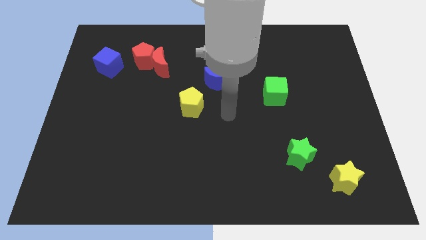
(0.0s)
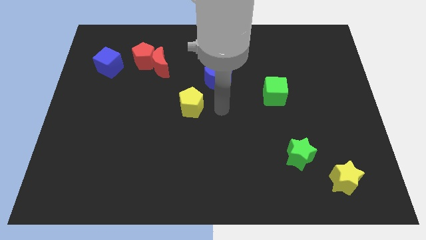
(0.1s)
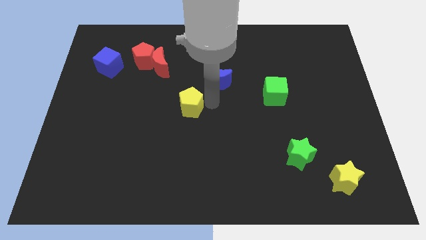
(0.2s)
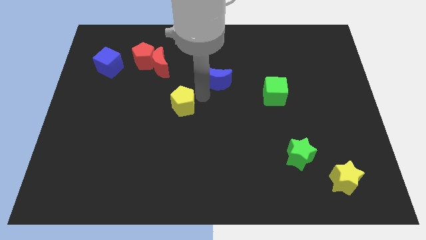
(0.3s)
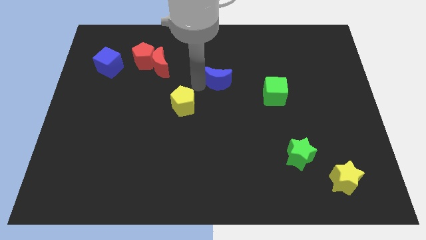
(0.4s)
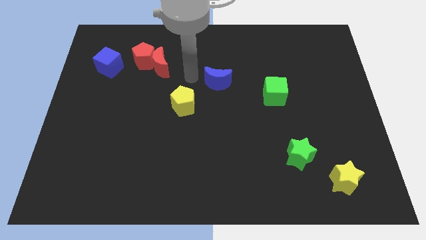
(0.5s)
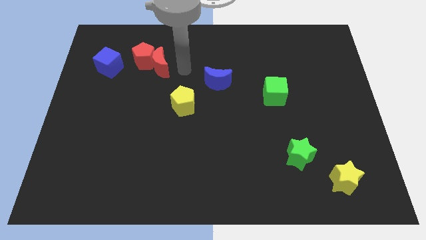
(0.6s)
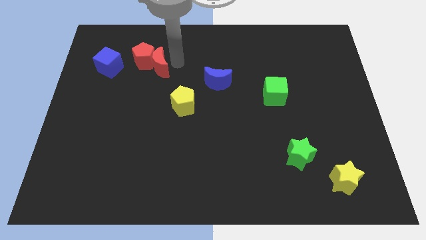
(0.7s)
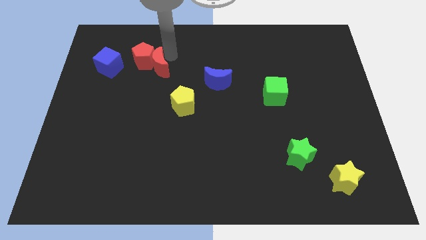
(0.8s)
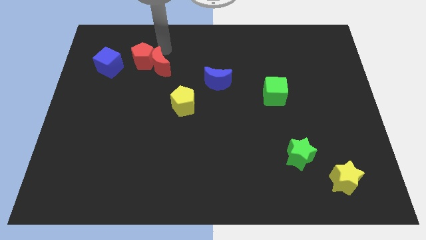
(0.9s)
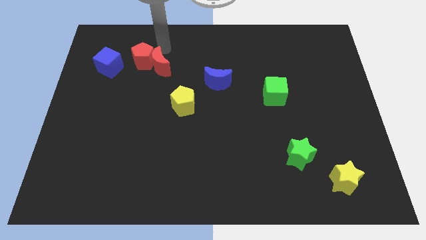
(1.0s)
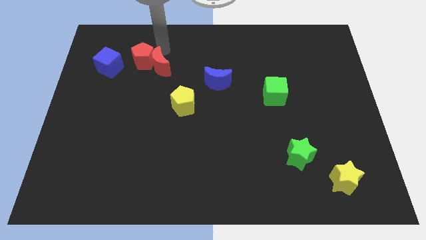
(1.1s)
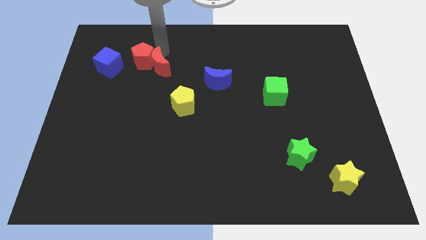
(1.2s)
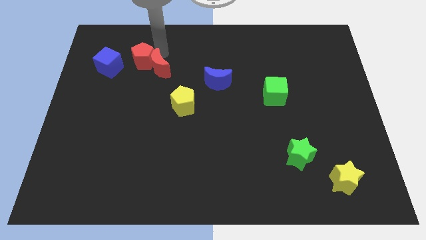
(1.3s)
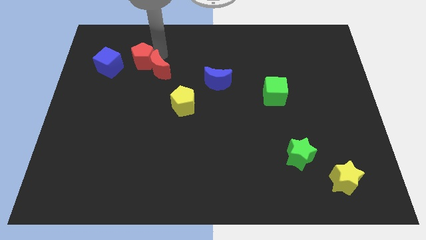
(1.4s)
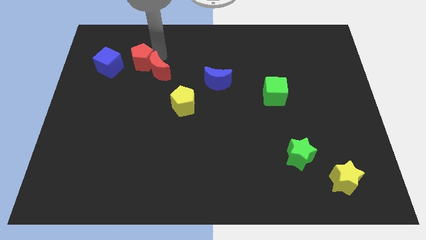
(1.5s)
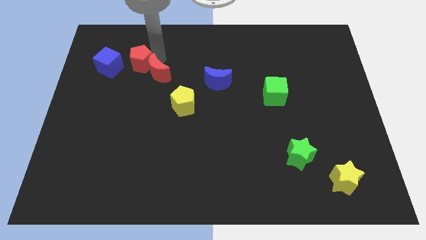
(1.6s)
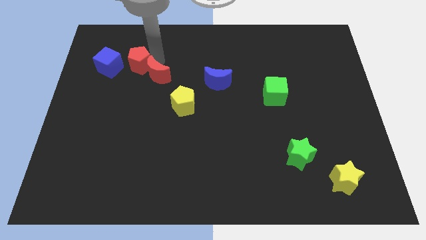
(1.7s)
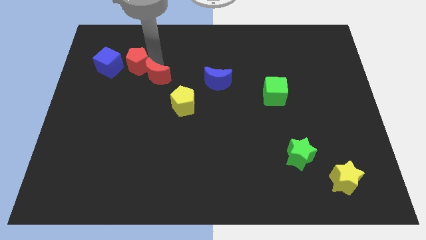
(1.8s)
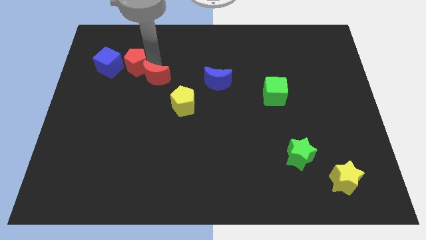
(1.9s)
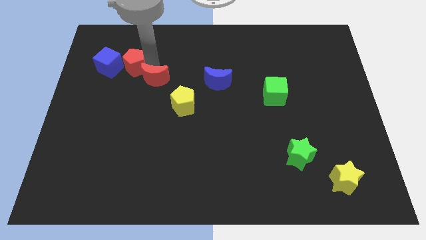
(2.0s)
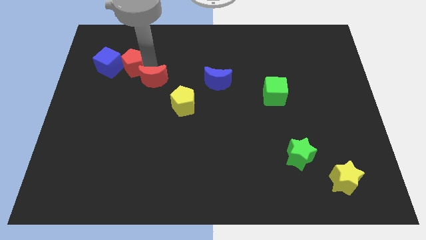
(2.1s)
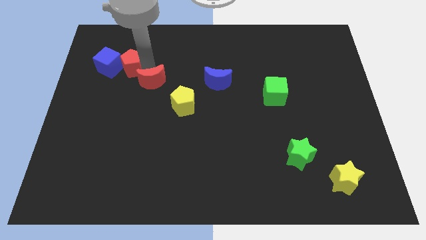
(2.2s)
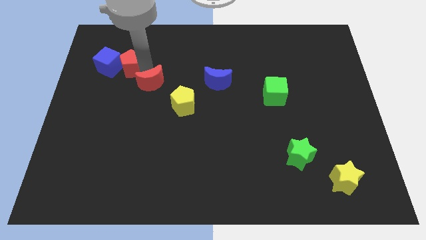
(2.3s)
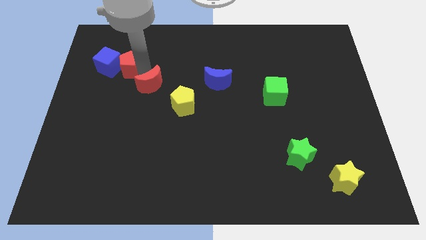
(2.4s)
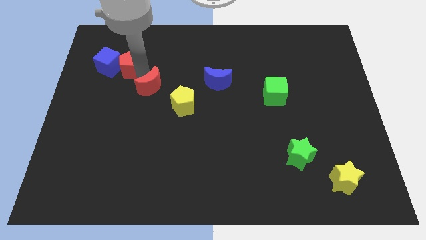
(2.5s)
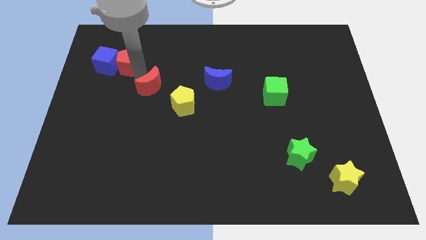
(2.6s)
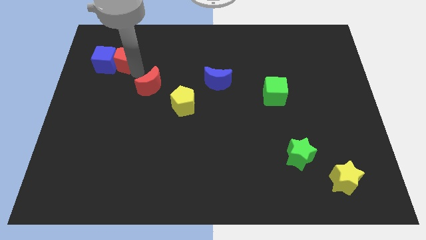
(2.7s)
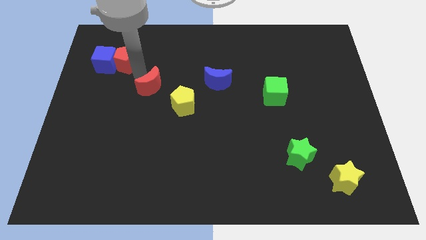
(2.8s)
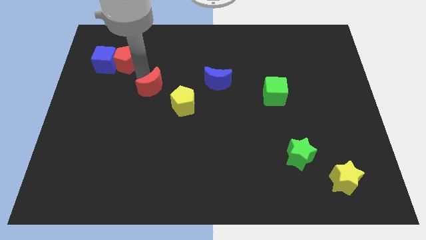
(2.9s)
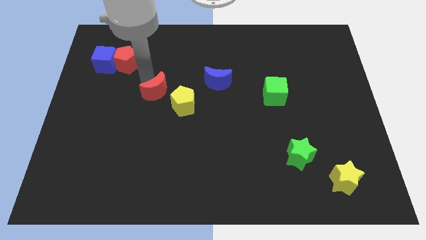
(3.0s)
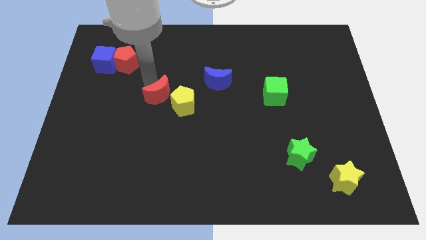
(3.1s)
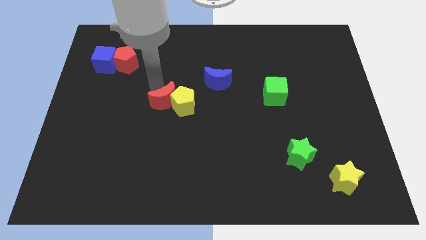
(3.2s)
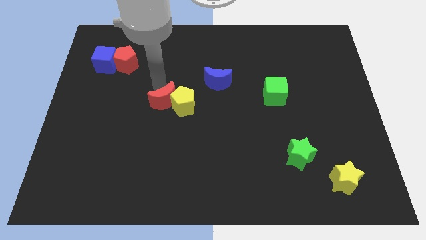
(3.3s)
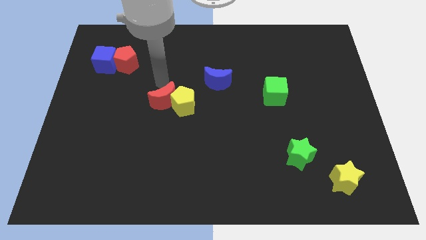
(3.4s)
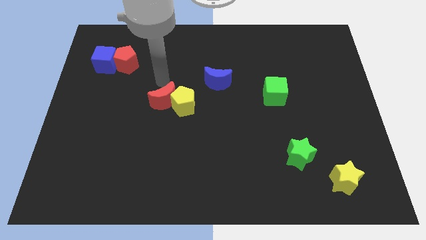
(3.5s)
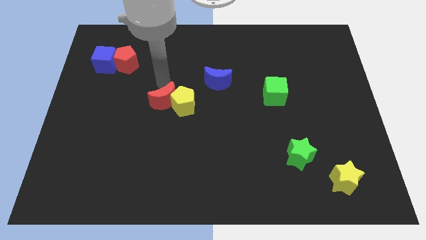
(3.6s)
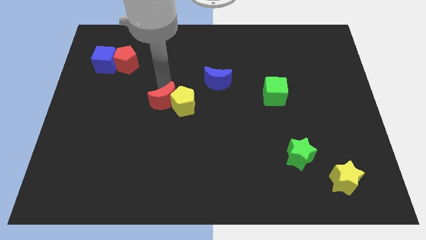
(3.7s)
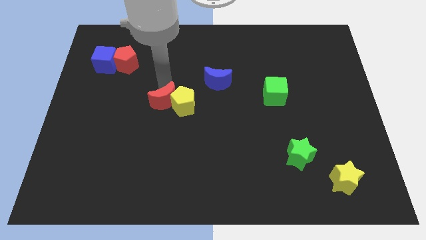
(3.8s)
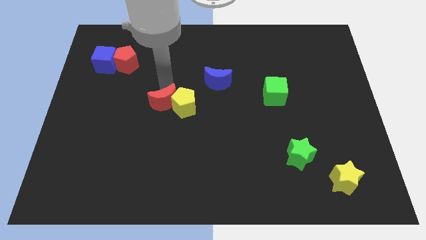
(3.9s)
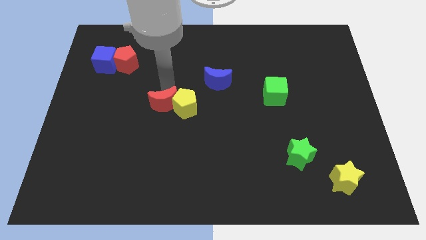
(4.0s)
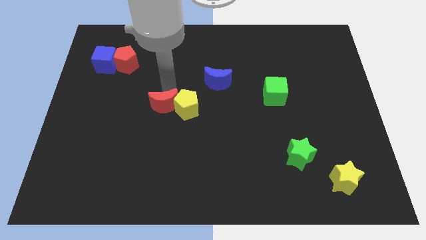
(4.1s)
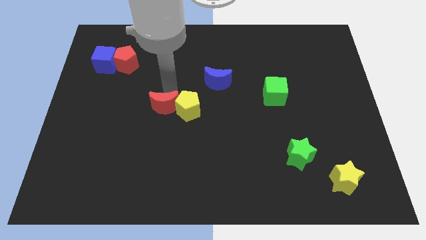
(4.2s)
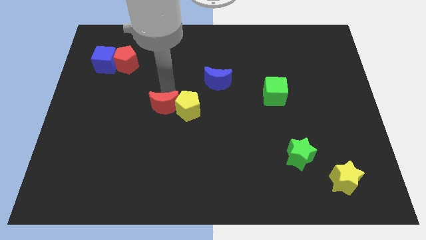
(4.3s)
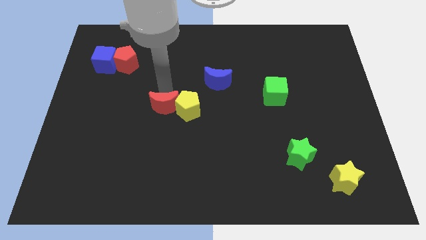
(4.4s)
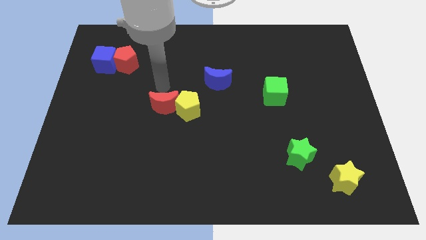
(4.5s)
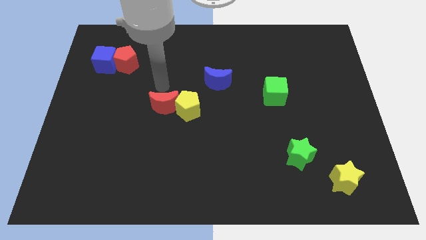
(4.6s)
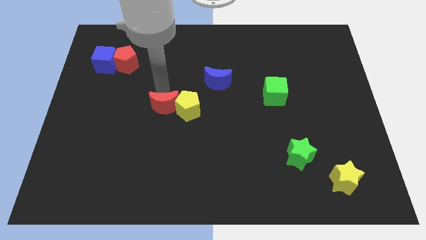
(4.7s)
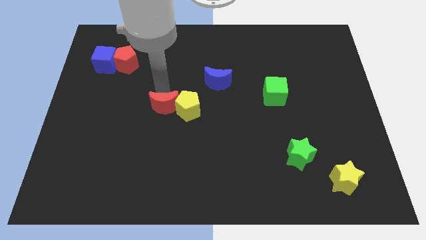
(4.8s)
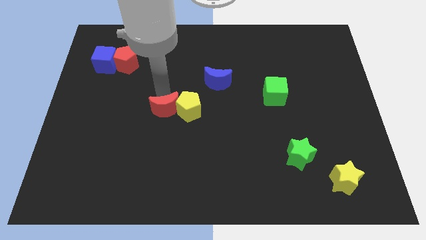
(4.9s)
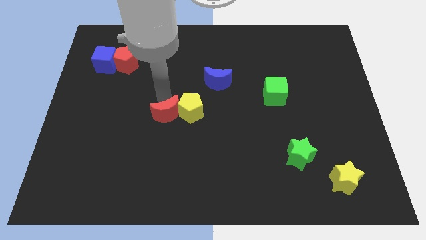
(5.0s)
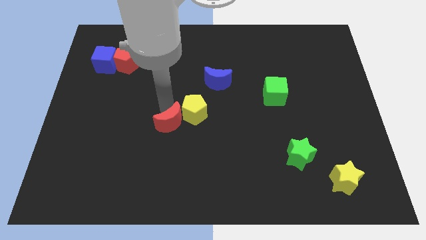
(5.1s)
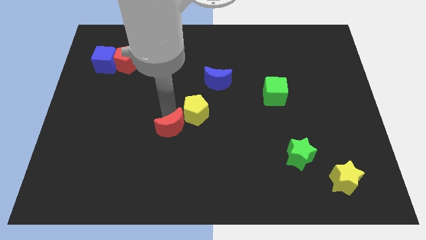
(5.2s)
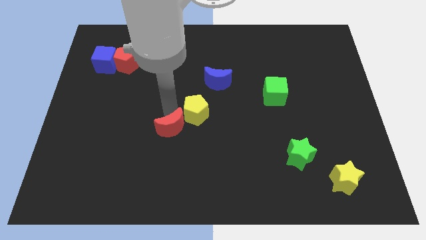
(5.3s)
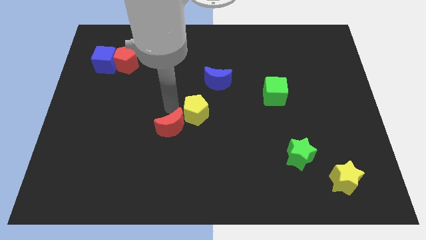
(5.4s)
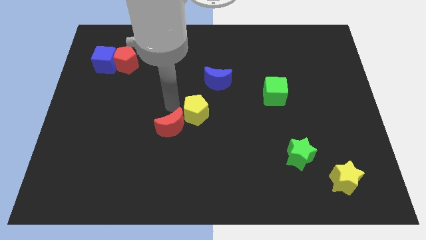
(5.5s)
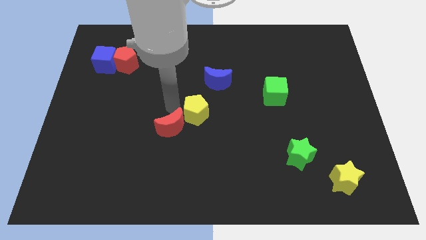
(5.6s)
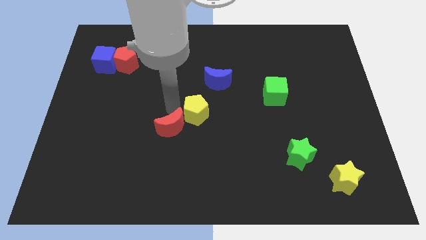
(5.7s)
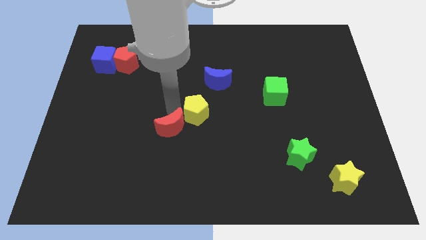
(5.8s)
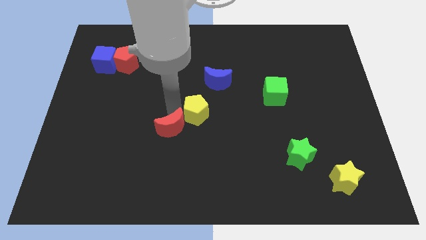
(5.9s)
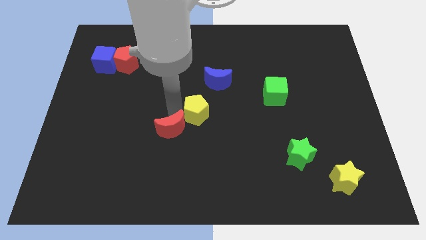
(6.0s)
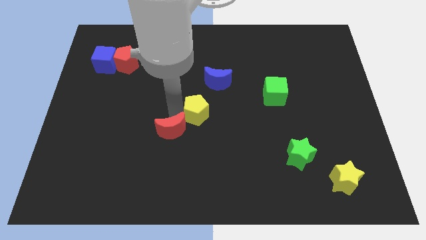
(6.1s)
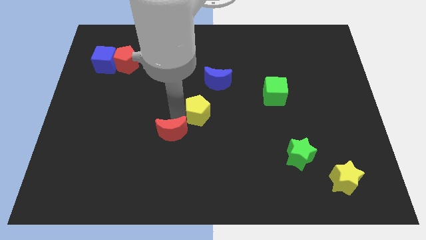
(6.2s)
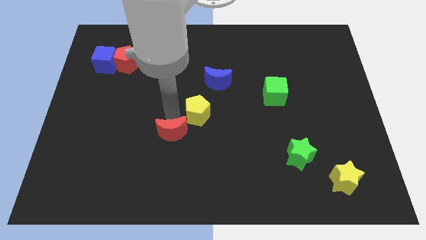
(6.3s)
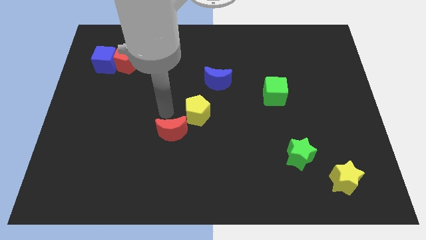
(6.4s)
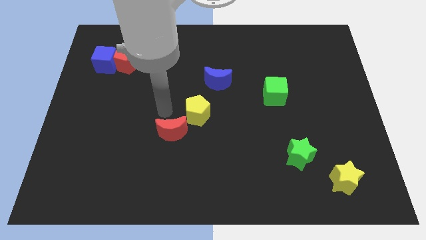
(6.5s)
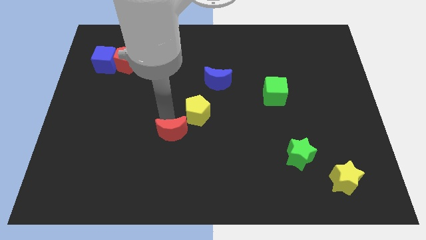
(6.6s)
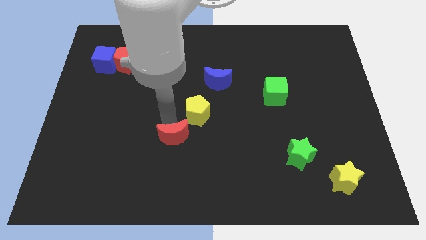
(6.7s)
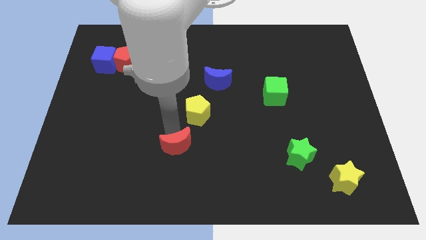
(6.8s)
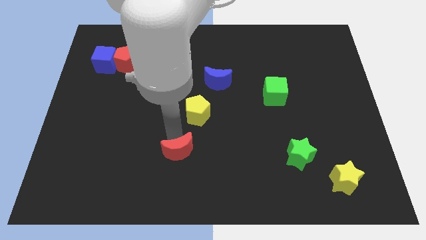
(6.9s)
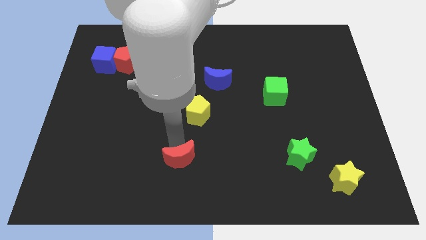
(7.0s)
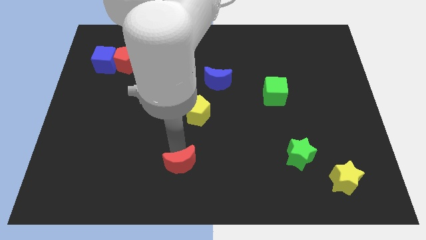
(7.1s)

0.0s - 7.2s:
push the red moon to the bottom side
